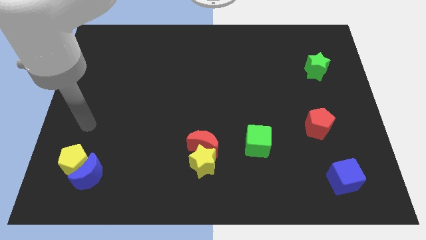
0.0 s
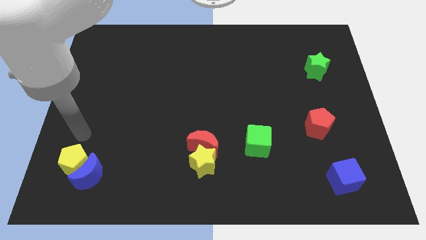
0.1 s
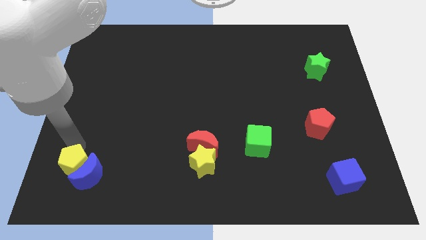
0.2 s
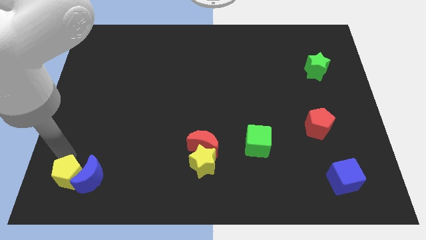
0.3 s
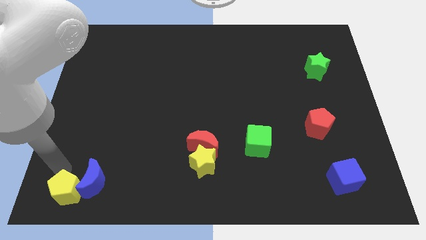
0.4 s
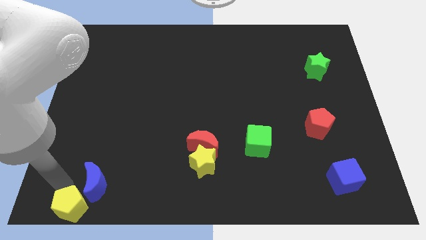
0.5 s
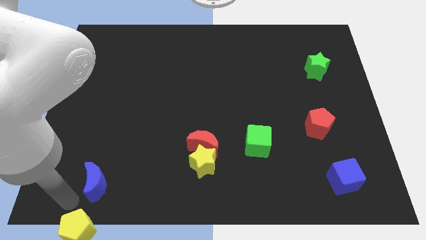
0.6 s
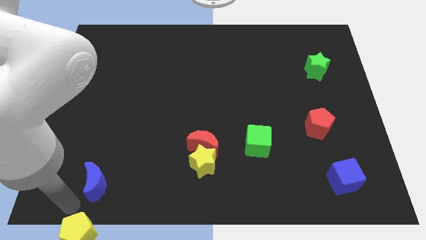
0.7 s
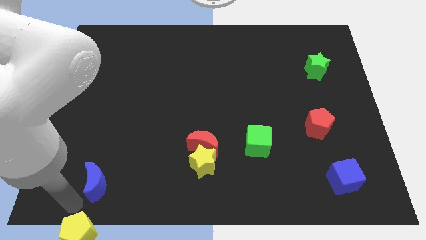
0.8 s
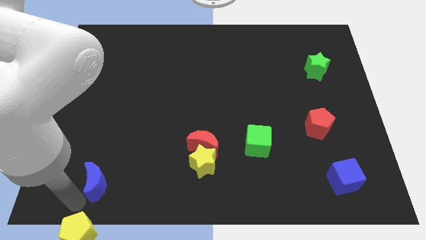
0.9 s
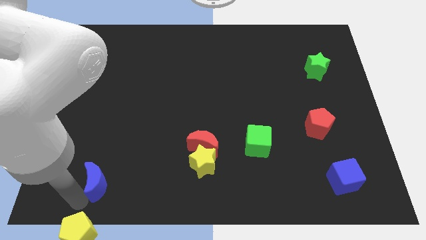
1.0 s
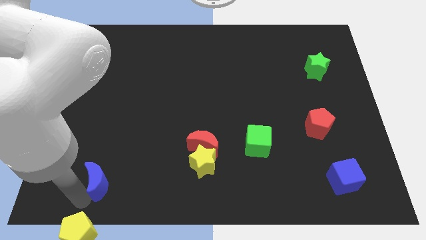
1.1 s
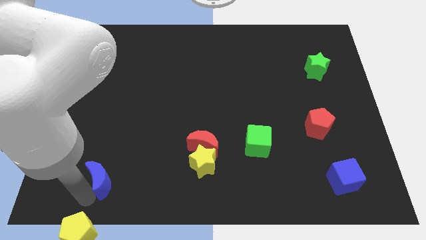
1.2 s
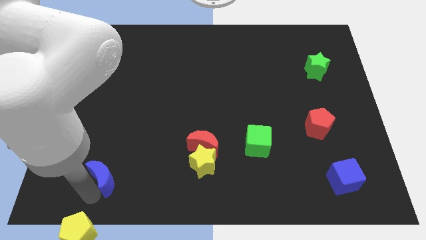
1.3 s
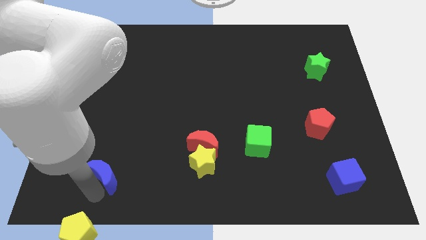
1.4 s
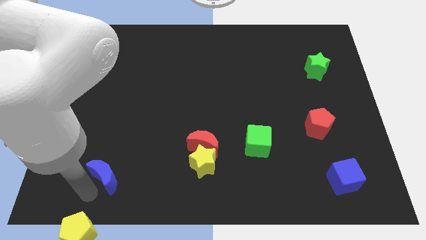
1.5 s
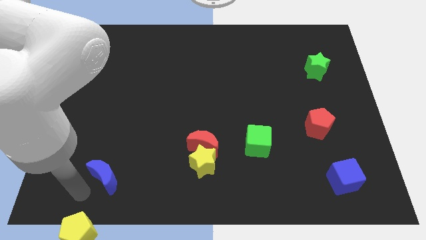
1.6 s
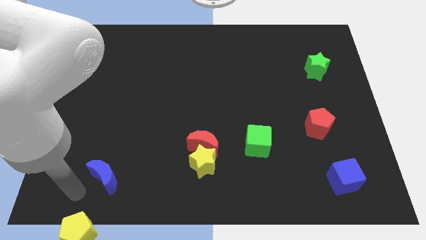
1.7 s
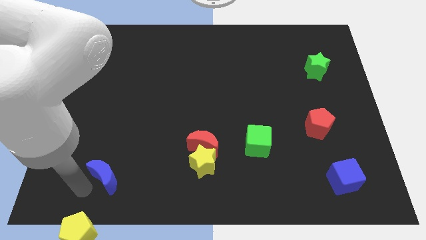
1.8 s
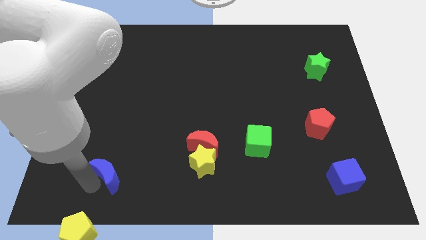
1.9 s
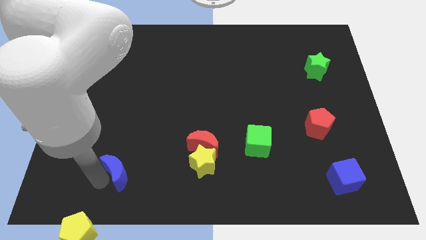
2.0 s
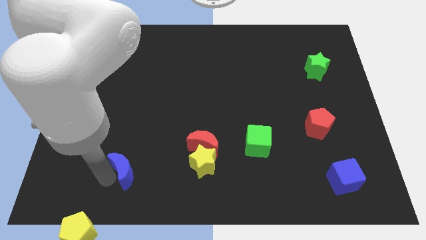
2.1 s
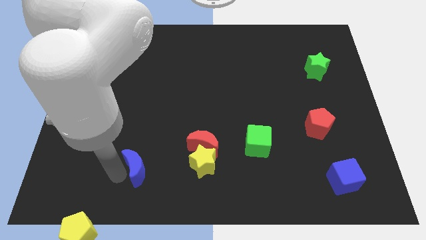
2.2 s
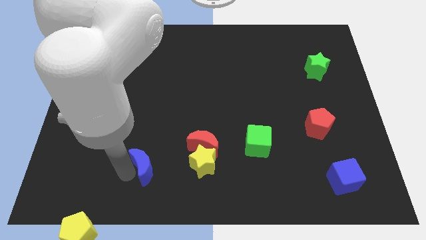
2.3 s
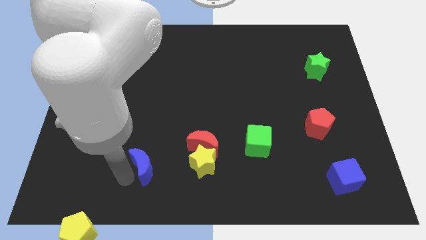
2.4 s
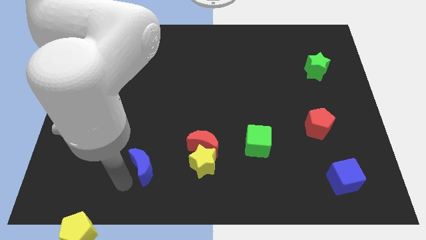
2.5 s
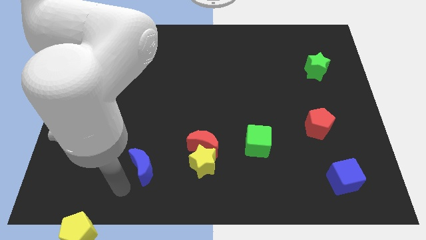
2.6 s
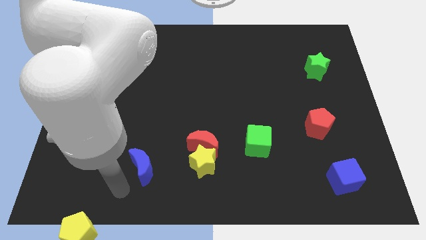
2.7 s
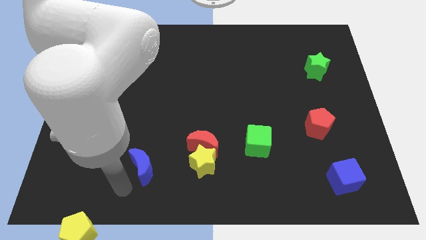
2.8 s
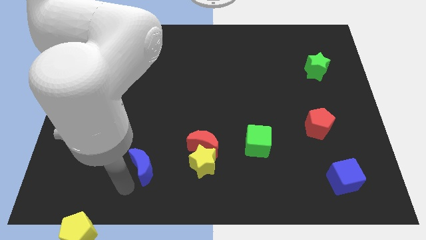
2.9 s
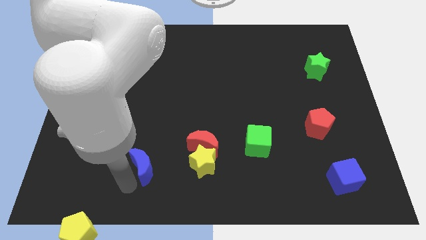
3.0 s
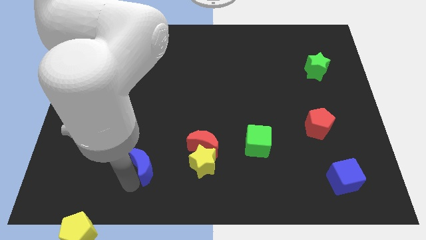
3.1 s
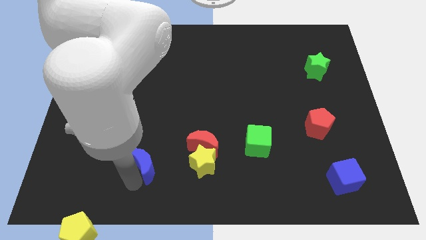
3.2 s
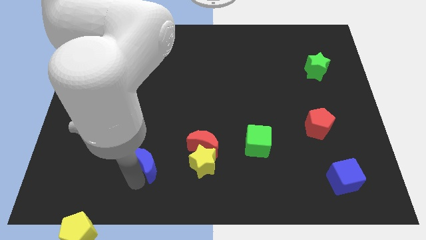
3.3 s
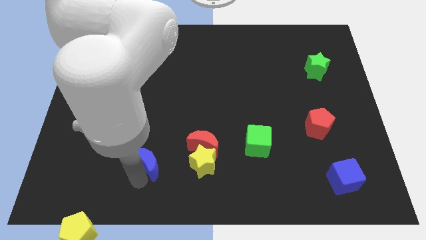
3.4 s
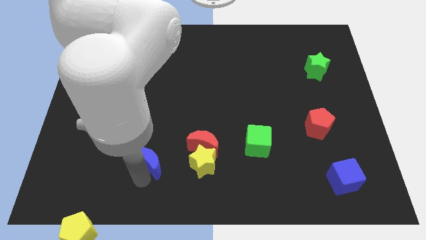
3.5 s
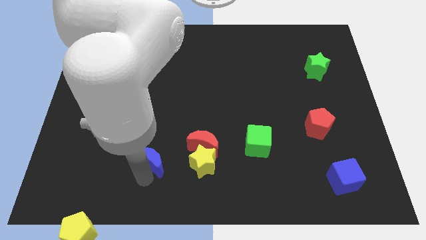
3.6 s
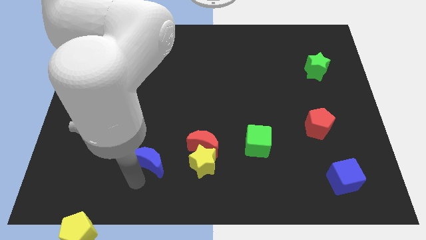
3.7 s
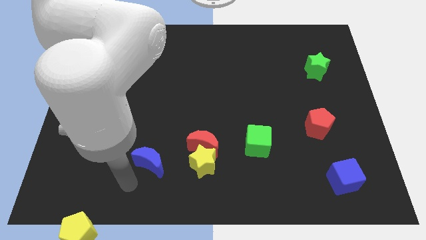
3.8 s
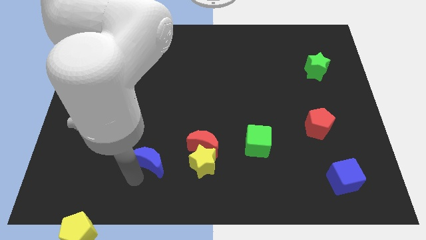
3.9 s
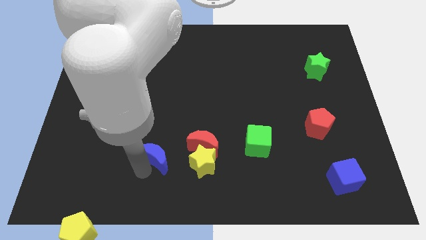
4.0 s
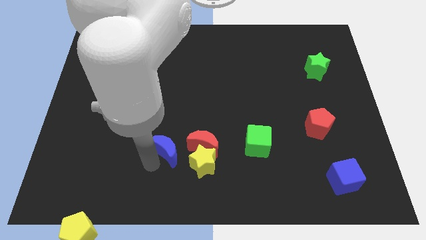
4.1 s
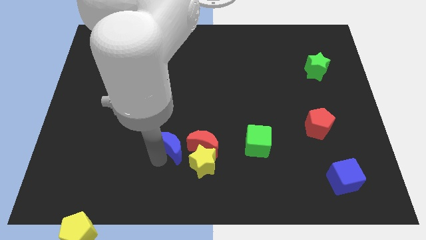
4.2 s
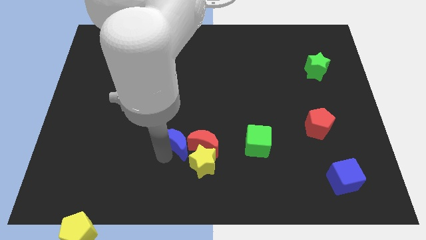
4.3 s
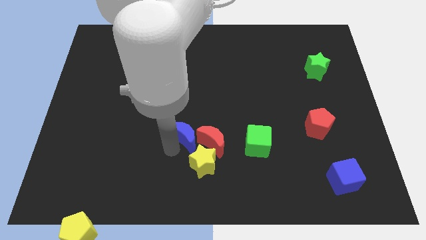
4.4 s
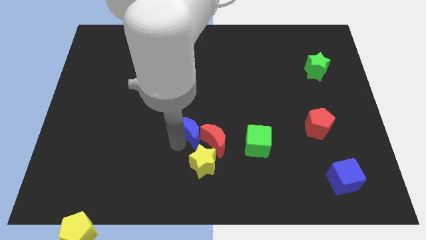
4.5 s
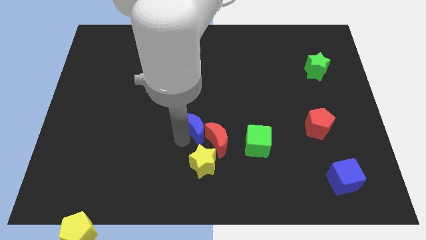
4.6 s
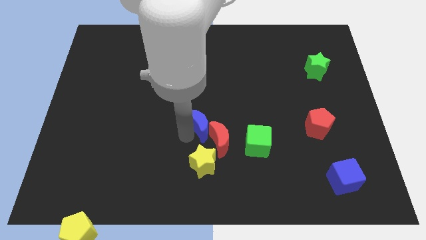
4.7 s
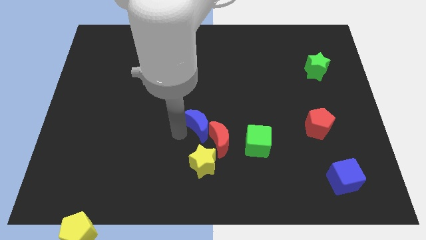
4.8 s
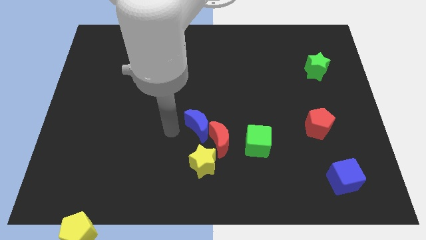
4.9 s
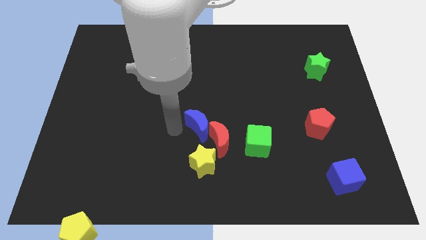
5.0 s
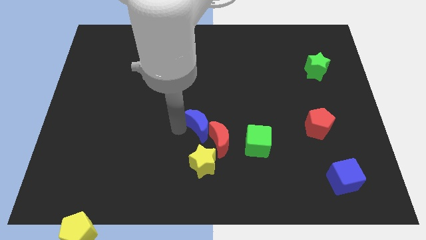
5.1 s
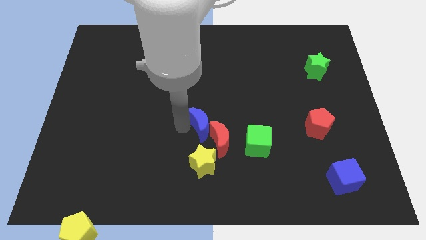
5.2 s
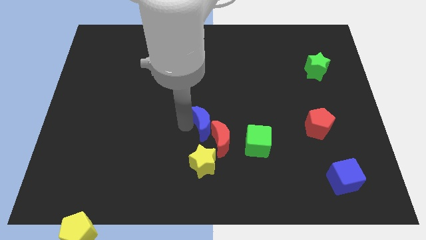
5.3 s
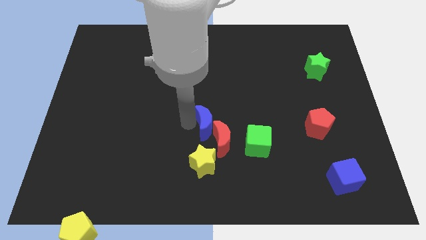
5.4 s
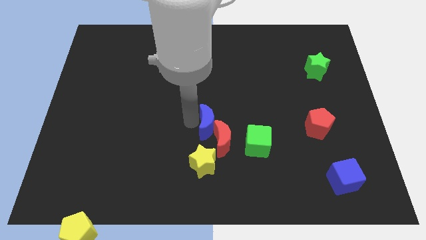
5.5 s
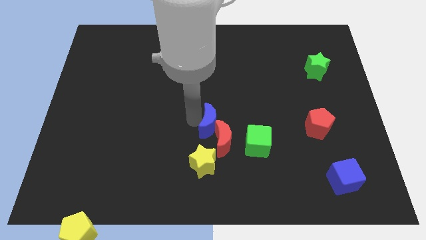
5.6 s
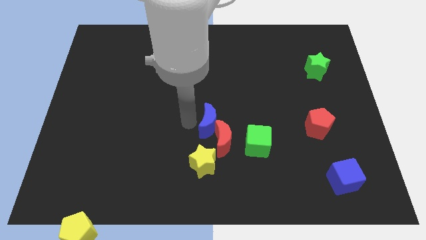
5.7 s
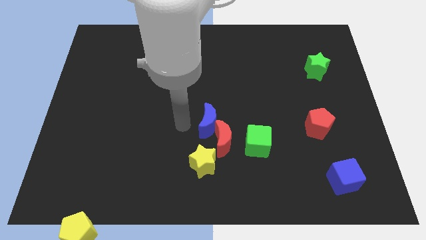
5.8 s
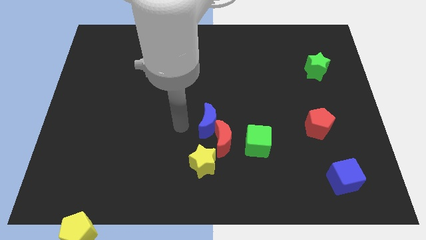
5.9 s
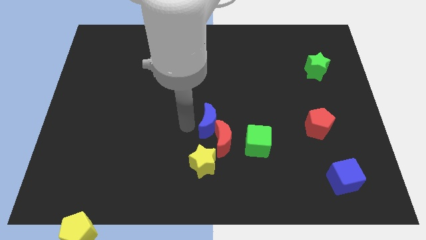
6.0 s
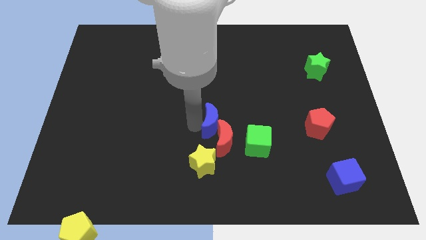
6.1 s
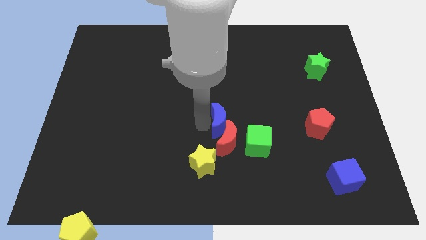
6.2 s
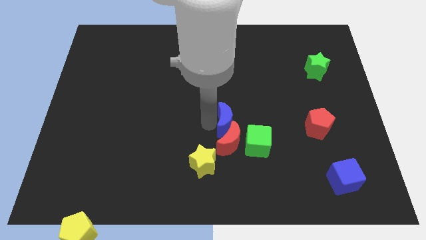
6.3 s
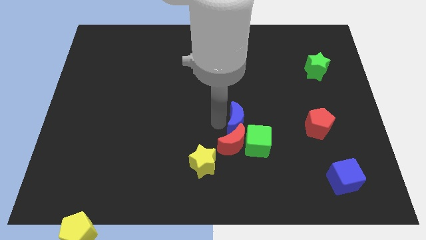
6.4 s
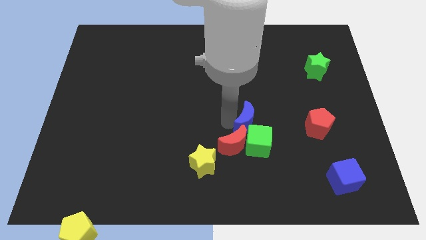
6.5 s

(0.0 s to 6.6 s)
push the blue moon to the left side of the red pentagon
